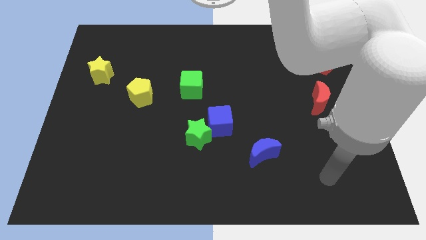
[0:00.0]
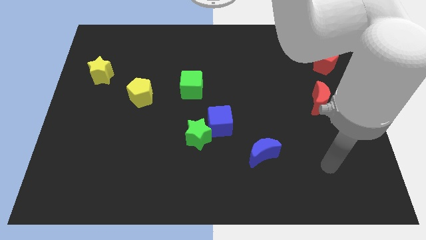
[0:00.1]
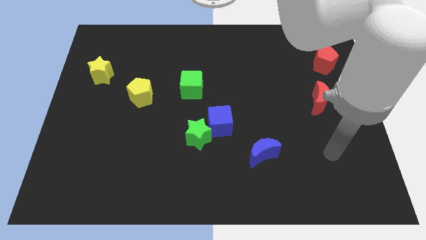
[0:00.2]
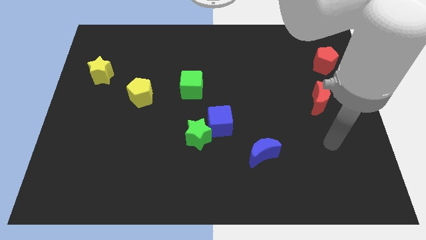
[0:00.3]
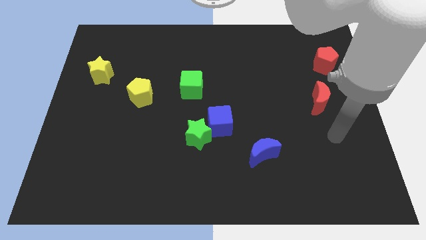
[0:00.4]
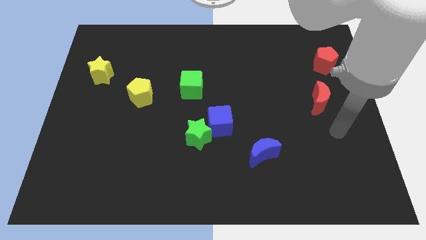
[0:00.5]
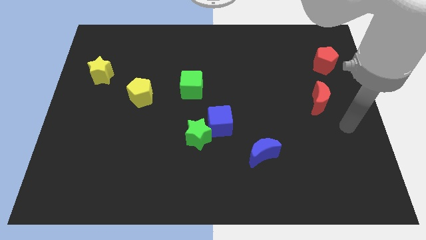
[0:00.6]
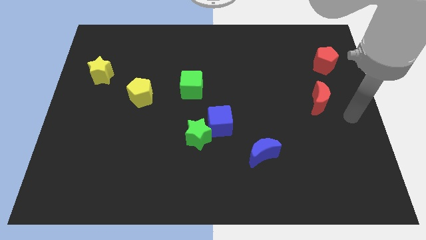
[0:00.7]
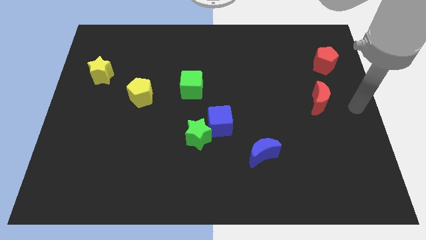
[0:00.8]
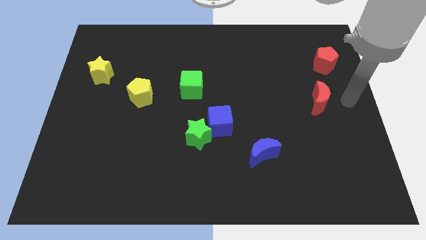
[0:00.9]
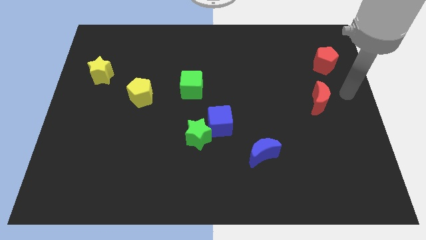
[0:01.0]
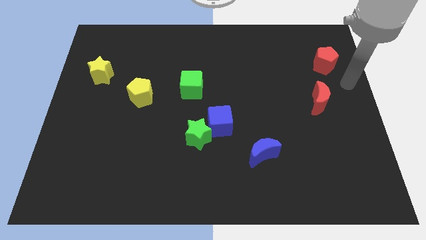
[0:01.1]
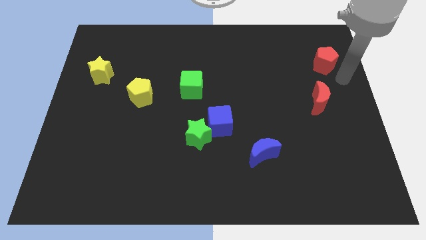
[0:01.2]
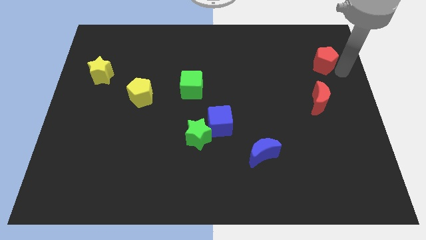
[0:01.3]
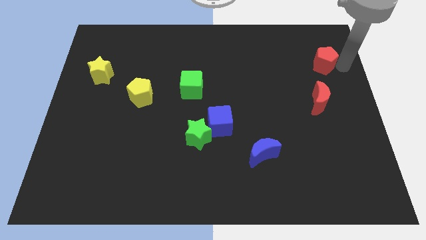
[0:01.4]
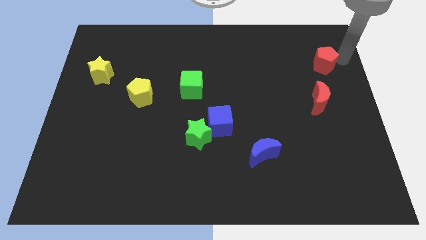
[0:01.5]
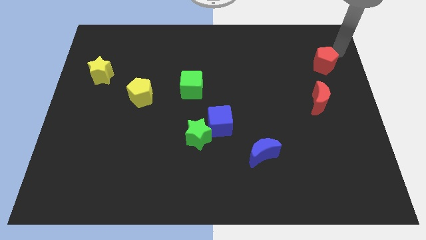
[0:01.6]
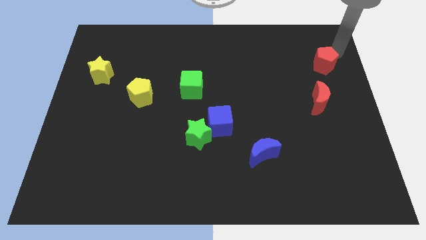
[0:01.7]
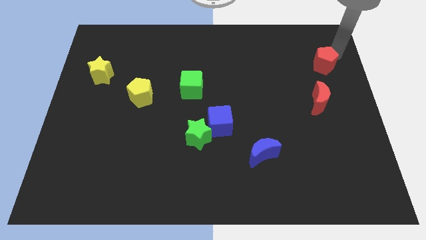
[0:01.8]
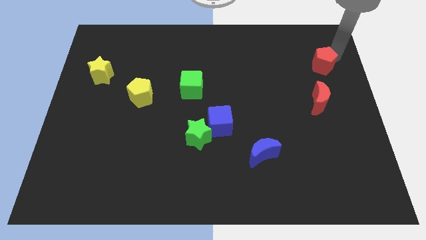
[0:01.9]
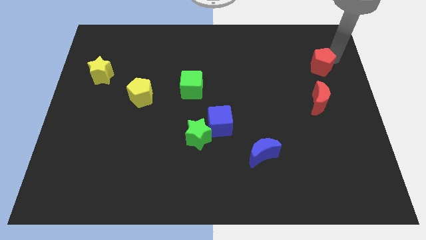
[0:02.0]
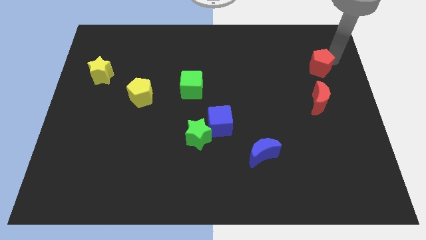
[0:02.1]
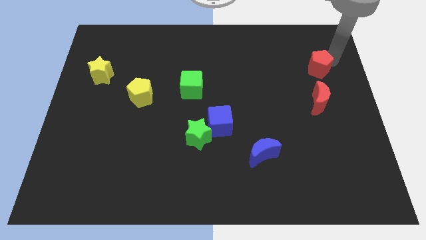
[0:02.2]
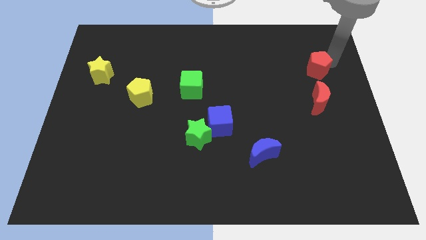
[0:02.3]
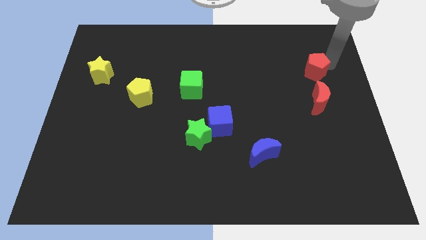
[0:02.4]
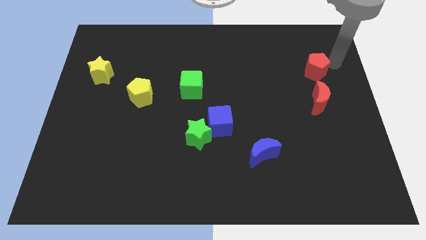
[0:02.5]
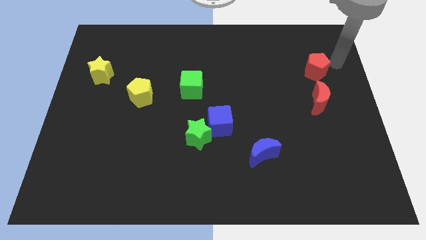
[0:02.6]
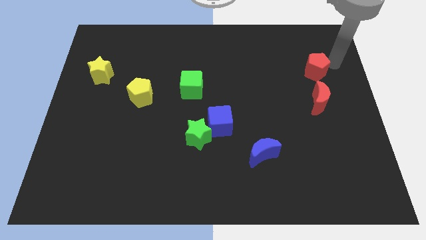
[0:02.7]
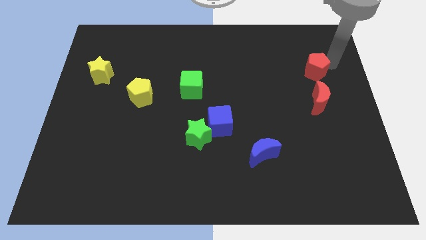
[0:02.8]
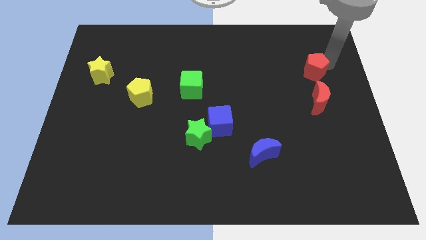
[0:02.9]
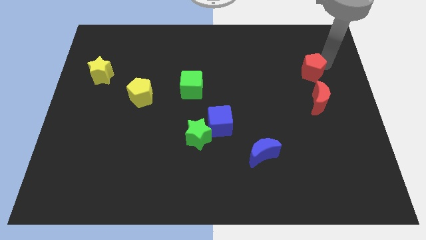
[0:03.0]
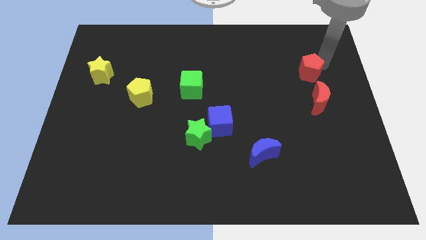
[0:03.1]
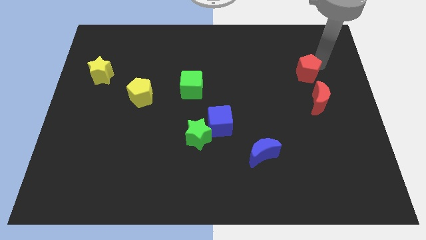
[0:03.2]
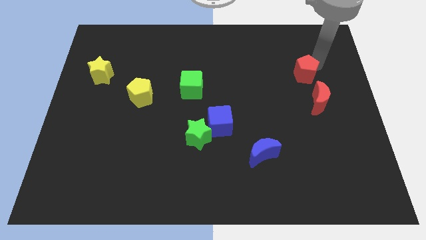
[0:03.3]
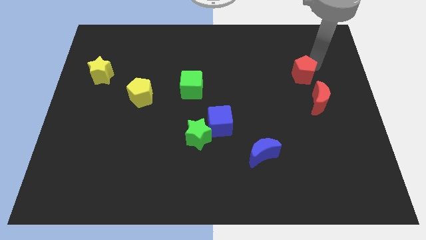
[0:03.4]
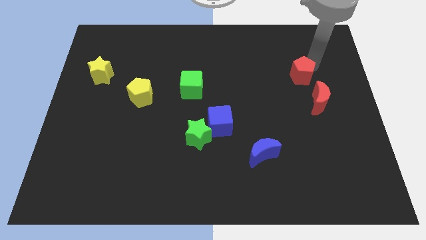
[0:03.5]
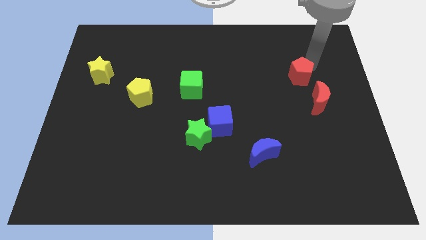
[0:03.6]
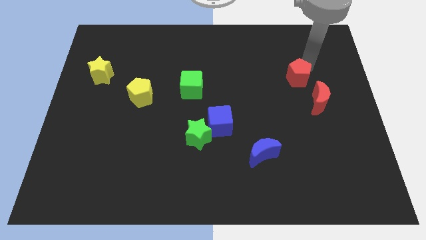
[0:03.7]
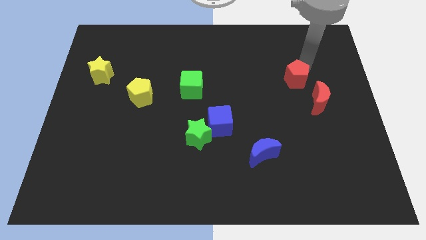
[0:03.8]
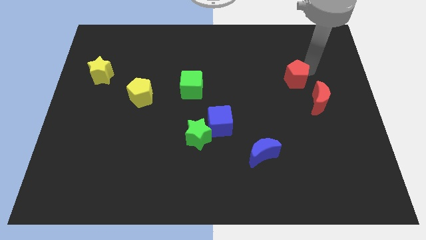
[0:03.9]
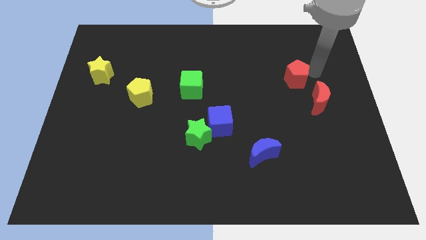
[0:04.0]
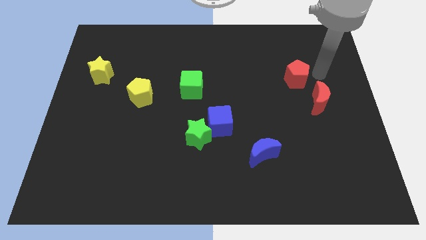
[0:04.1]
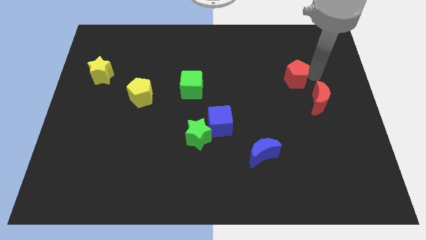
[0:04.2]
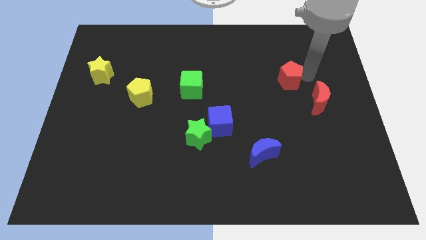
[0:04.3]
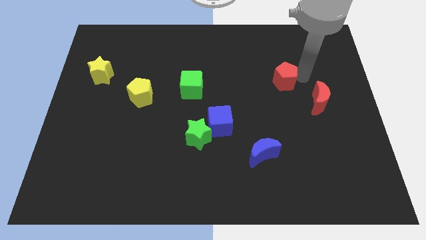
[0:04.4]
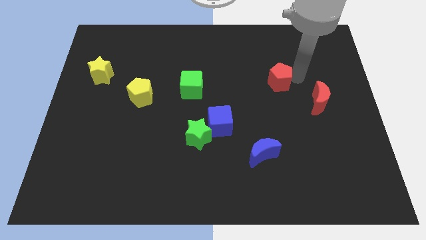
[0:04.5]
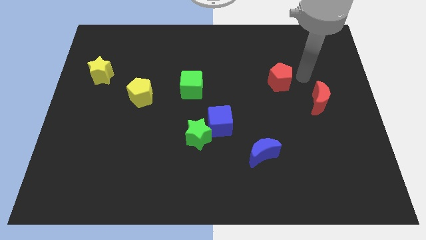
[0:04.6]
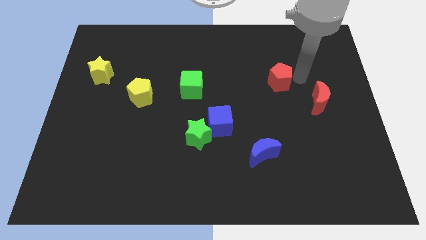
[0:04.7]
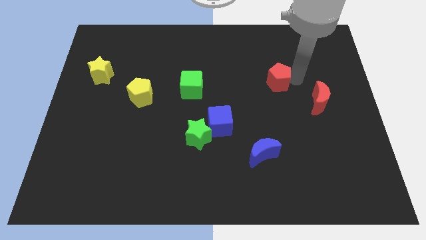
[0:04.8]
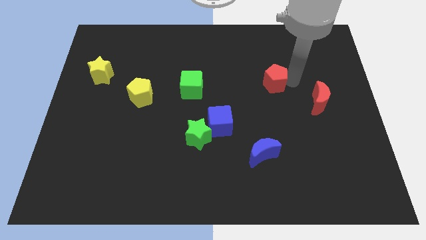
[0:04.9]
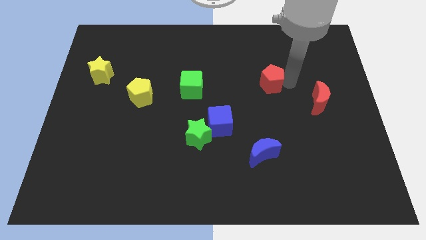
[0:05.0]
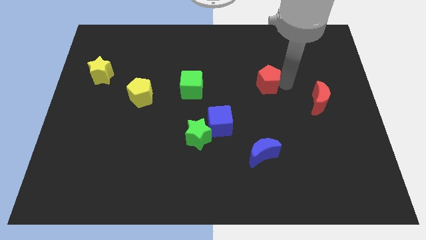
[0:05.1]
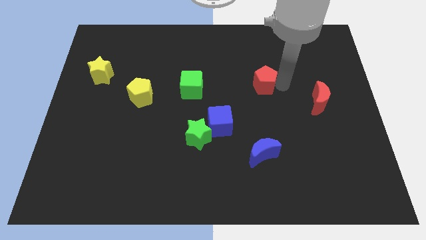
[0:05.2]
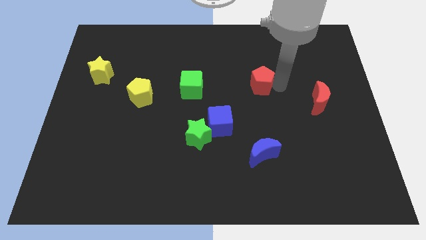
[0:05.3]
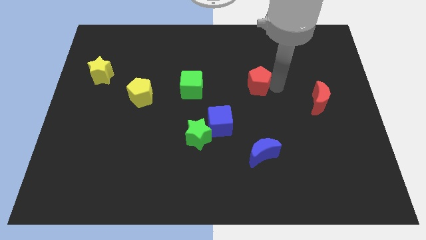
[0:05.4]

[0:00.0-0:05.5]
move the red pentagon right of the green cube

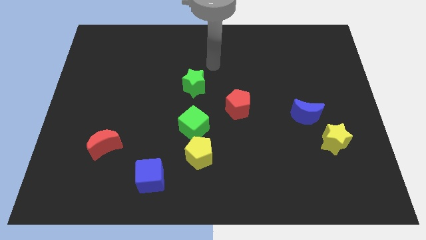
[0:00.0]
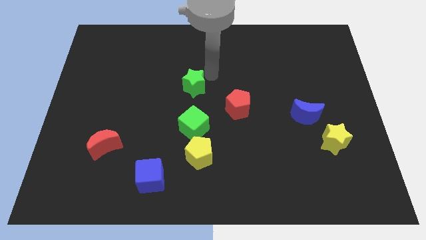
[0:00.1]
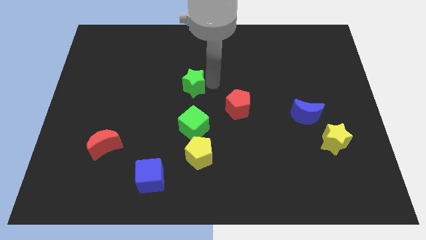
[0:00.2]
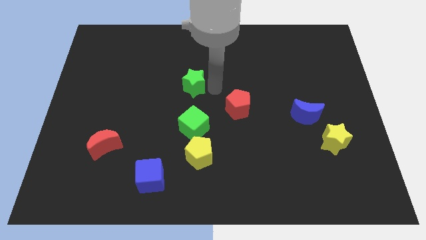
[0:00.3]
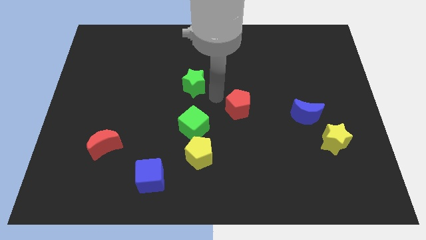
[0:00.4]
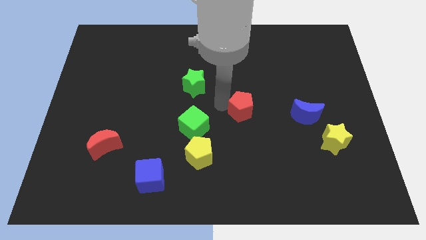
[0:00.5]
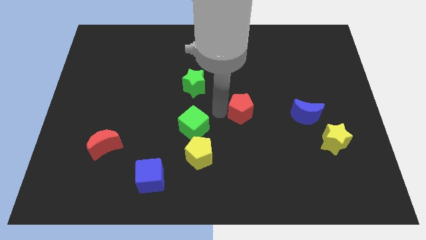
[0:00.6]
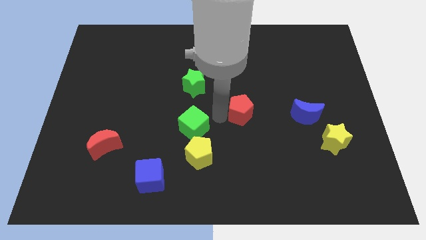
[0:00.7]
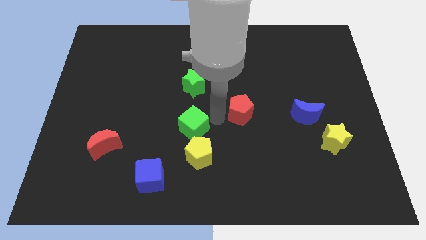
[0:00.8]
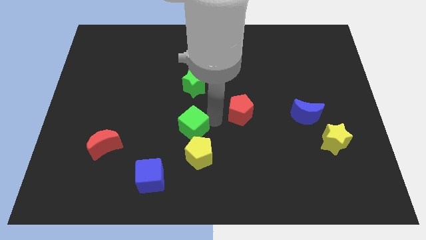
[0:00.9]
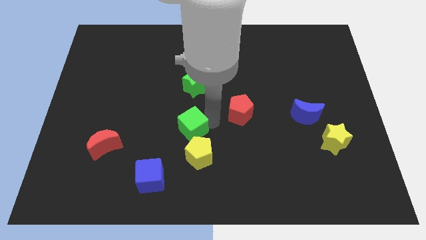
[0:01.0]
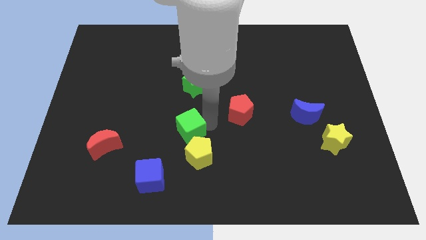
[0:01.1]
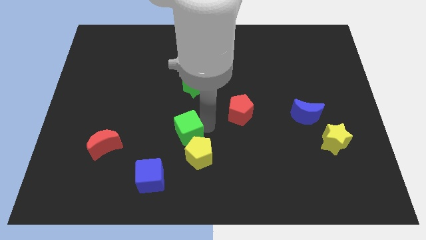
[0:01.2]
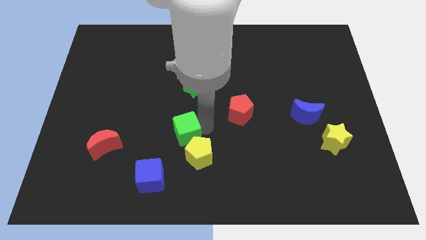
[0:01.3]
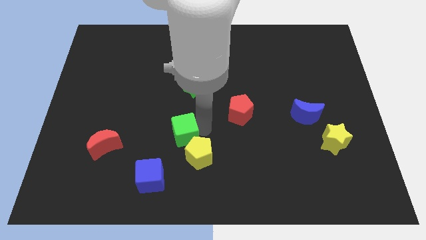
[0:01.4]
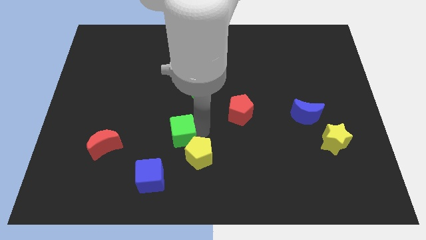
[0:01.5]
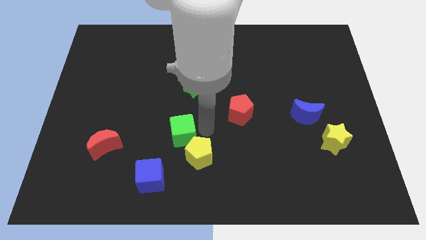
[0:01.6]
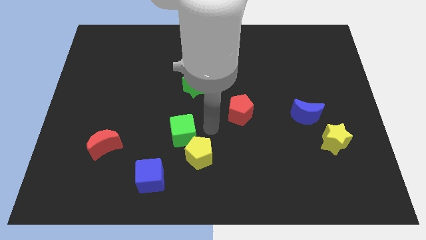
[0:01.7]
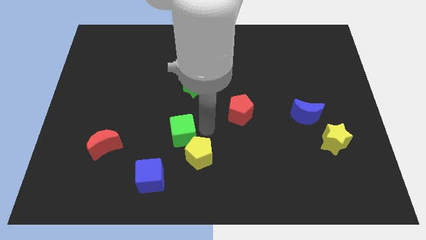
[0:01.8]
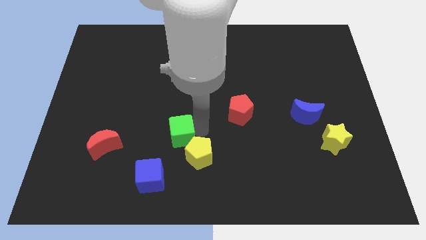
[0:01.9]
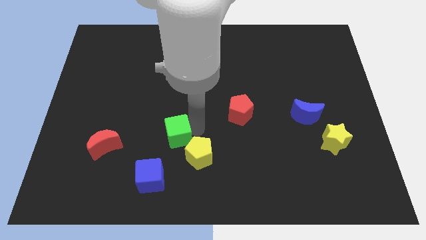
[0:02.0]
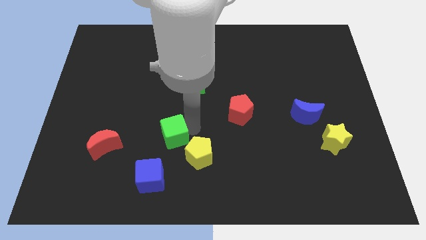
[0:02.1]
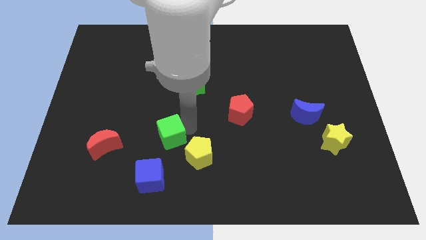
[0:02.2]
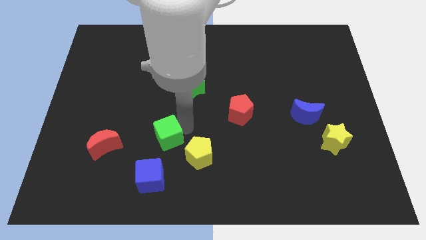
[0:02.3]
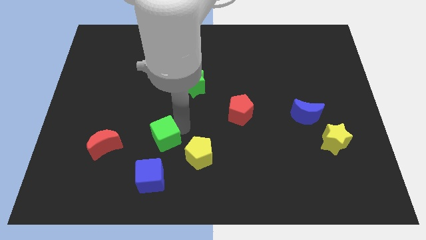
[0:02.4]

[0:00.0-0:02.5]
put the green cube to the left side of the yellow pentagon
